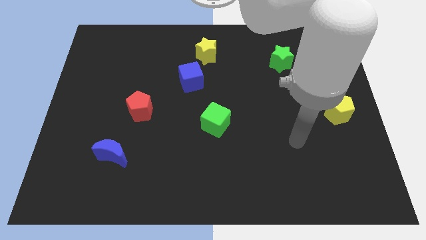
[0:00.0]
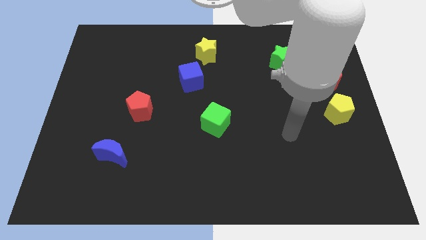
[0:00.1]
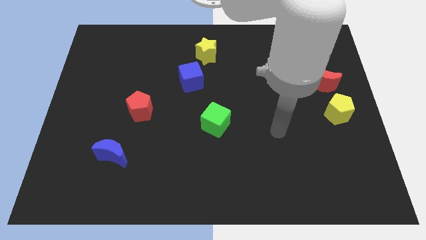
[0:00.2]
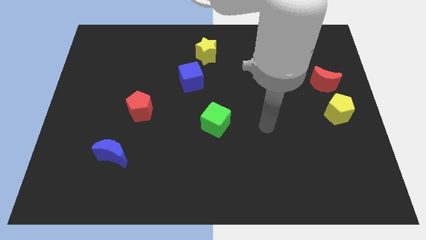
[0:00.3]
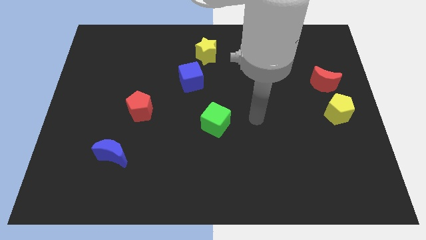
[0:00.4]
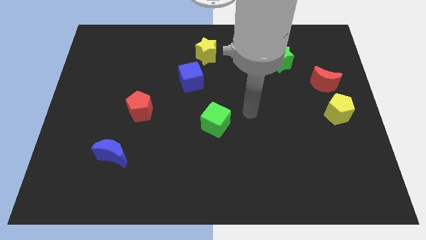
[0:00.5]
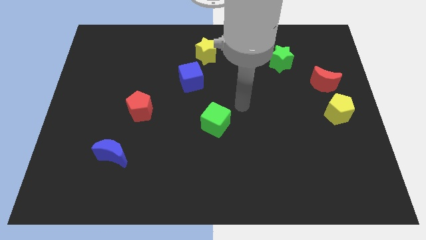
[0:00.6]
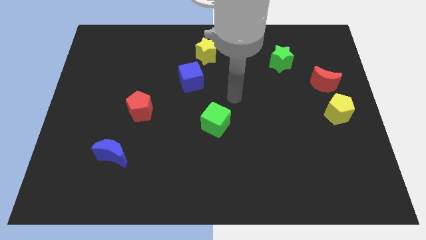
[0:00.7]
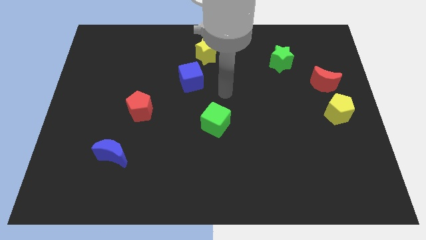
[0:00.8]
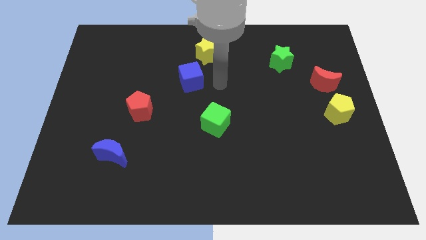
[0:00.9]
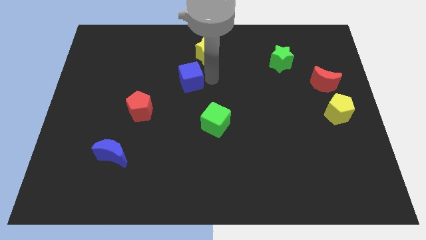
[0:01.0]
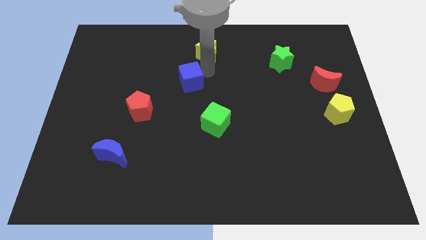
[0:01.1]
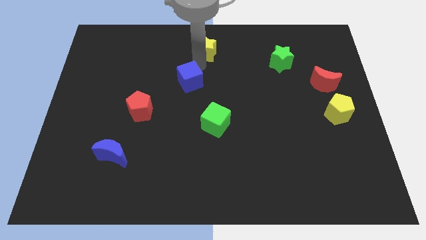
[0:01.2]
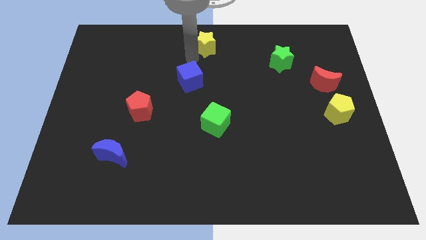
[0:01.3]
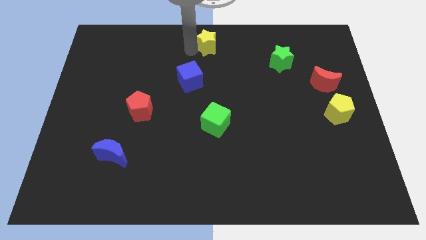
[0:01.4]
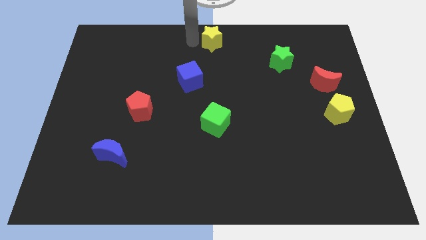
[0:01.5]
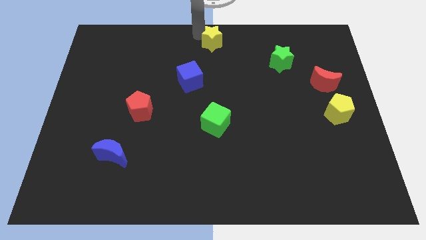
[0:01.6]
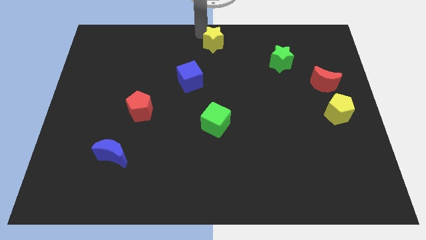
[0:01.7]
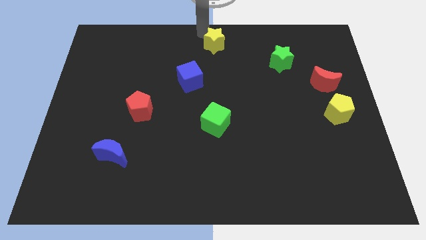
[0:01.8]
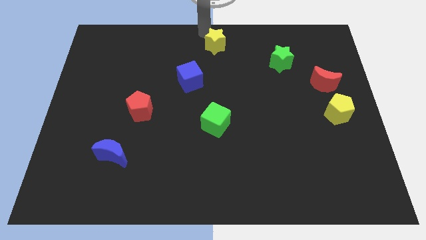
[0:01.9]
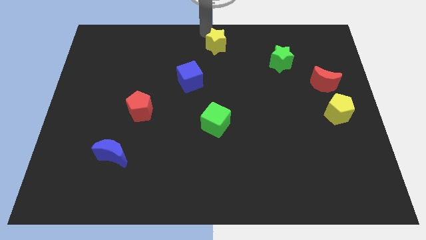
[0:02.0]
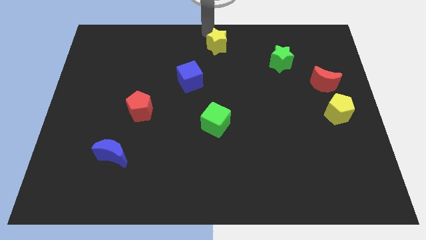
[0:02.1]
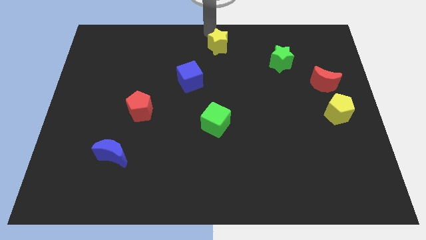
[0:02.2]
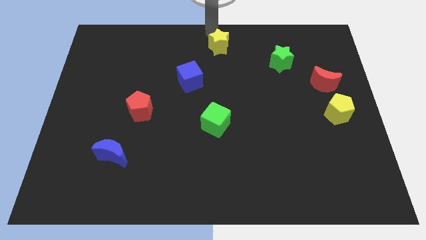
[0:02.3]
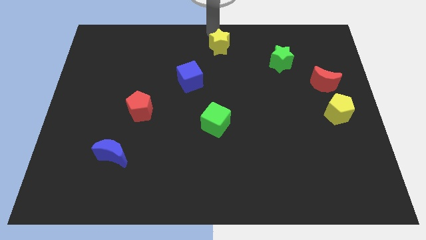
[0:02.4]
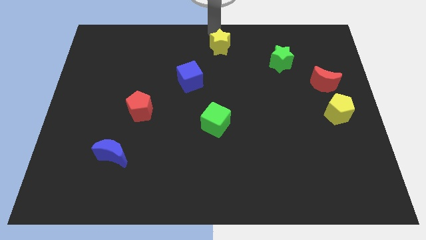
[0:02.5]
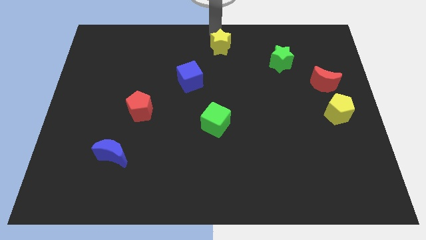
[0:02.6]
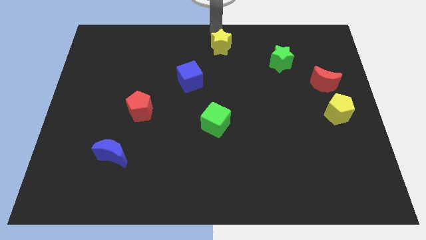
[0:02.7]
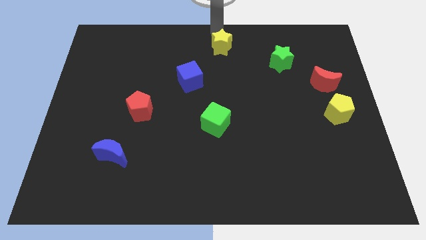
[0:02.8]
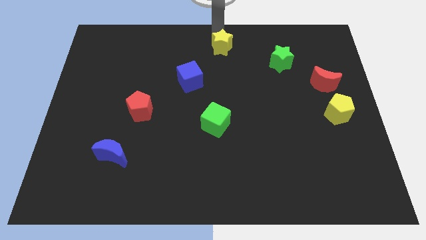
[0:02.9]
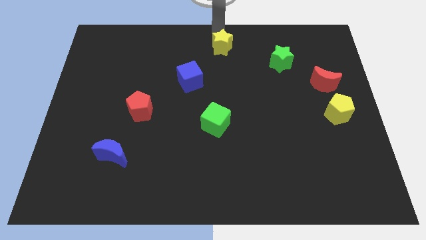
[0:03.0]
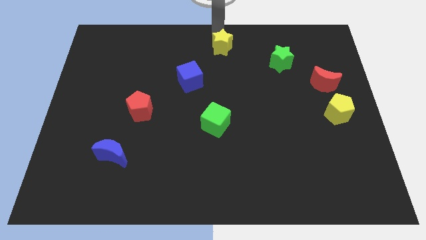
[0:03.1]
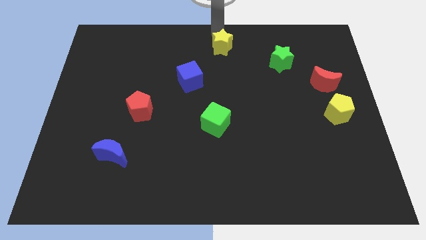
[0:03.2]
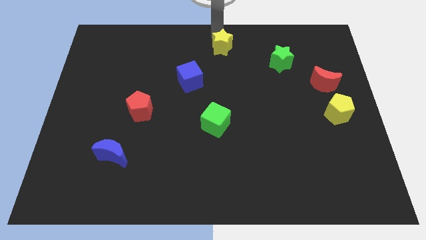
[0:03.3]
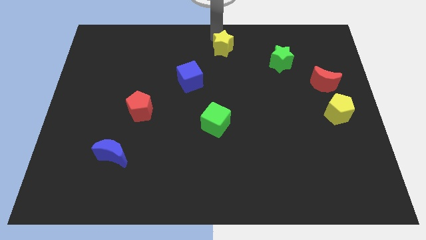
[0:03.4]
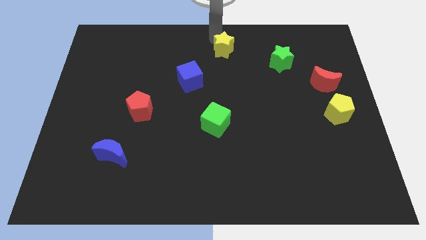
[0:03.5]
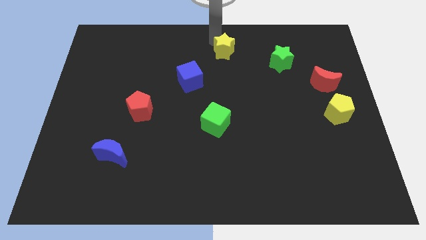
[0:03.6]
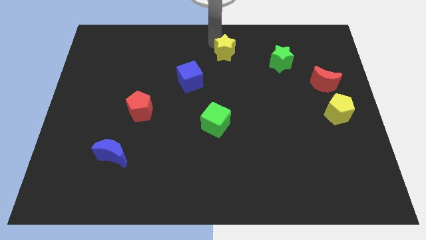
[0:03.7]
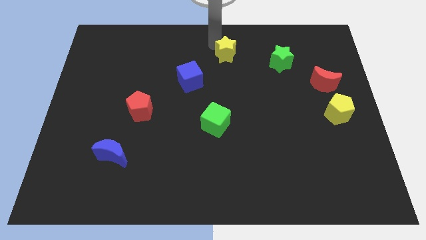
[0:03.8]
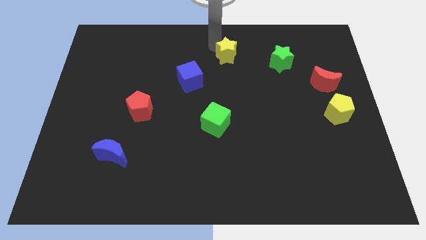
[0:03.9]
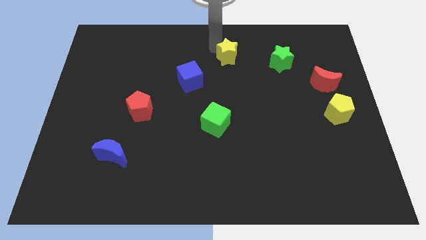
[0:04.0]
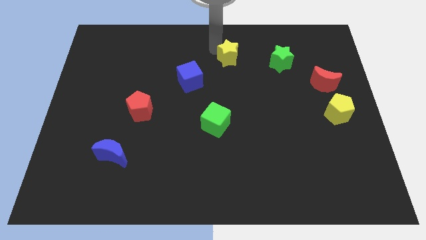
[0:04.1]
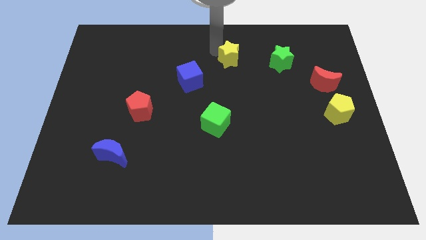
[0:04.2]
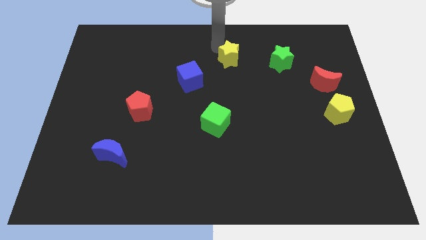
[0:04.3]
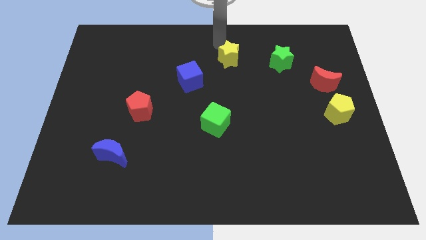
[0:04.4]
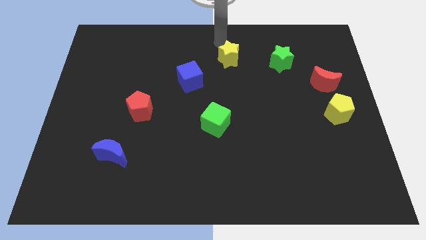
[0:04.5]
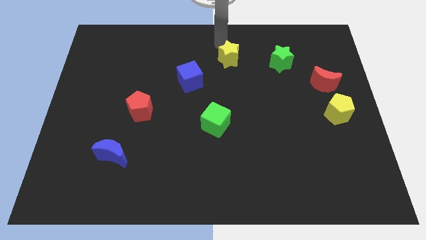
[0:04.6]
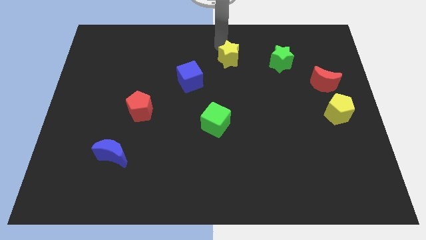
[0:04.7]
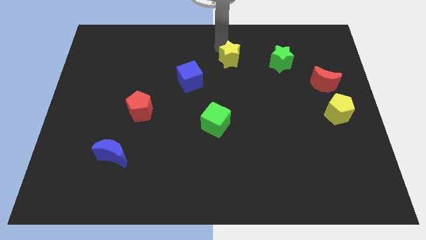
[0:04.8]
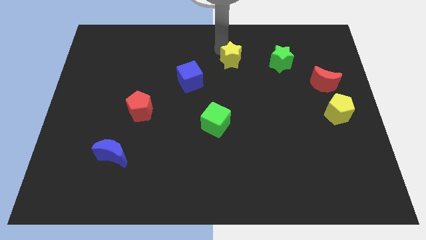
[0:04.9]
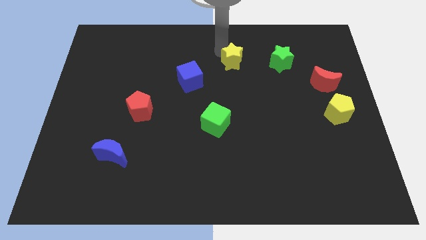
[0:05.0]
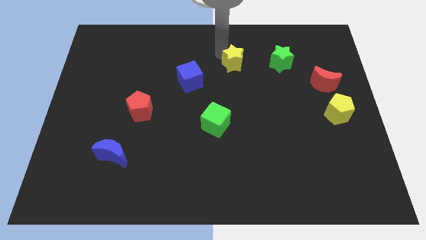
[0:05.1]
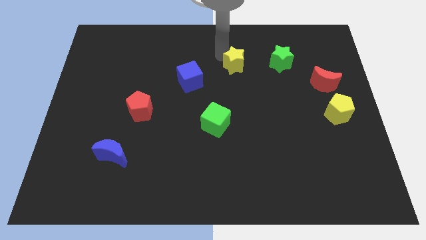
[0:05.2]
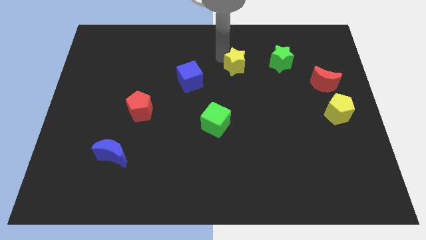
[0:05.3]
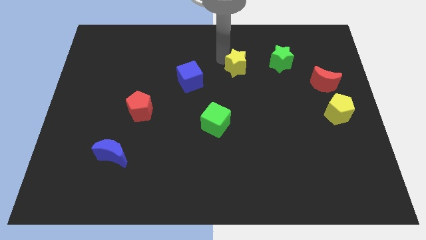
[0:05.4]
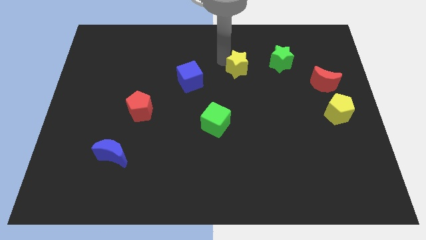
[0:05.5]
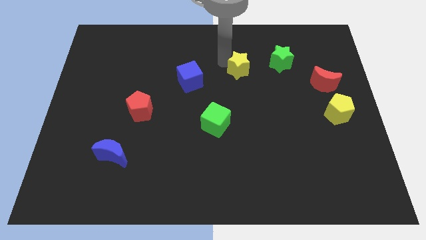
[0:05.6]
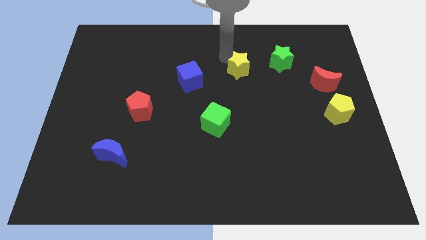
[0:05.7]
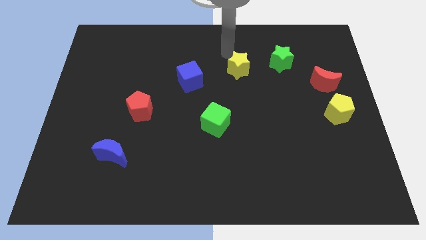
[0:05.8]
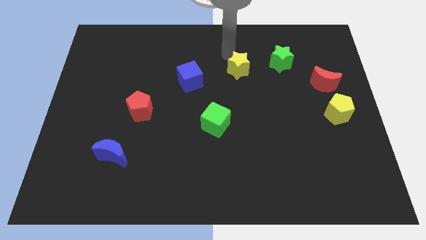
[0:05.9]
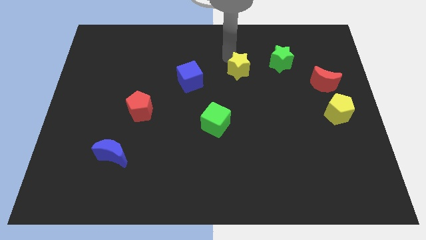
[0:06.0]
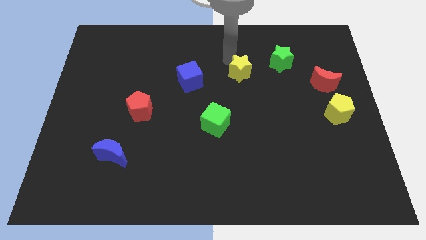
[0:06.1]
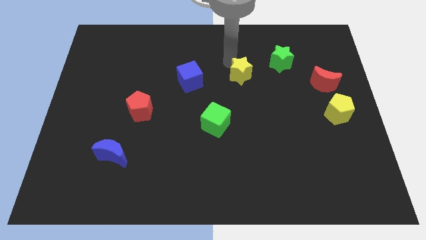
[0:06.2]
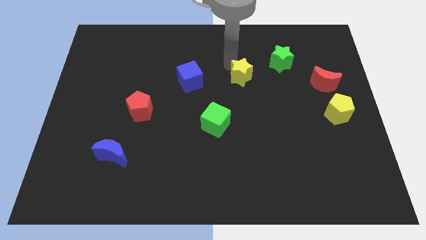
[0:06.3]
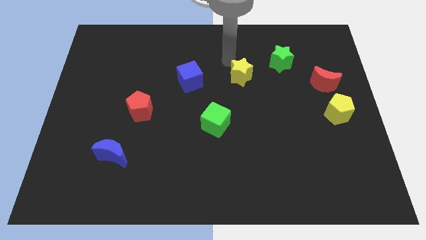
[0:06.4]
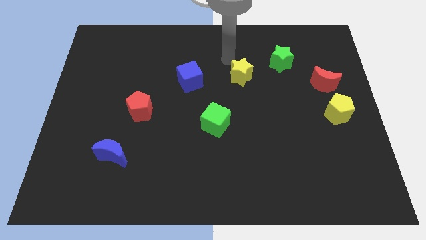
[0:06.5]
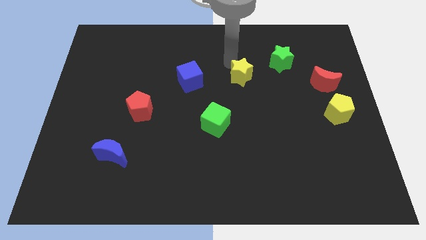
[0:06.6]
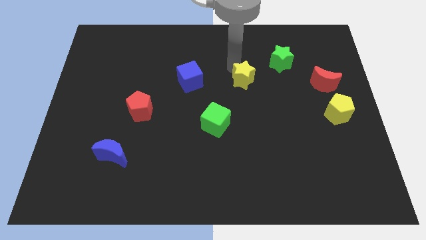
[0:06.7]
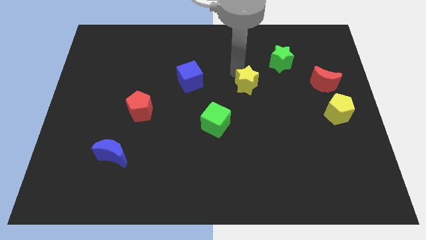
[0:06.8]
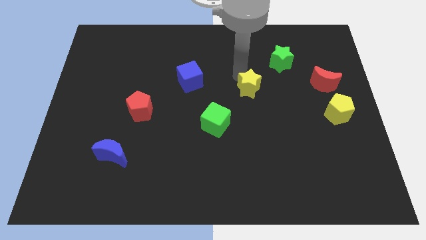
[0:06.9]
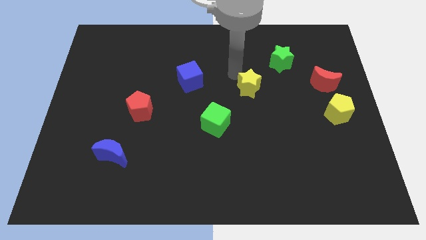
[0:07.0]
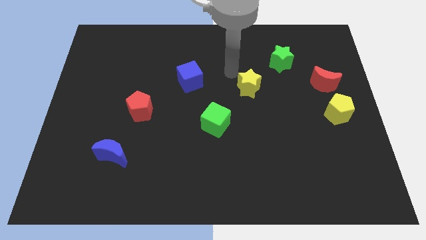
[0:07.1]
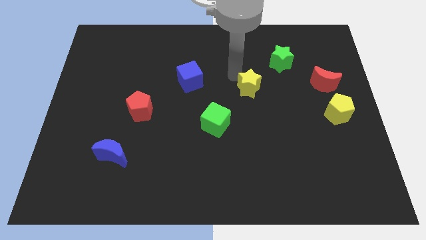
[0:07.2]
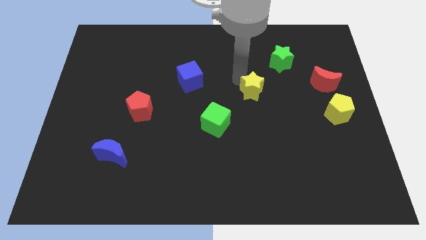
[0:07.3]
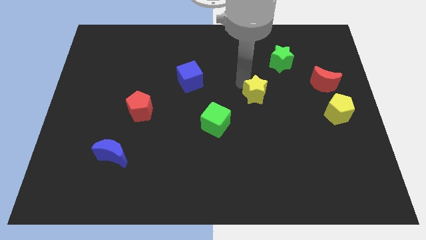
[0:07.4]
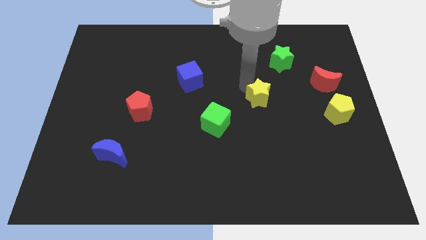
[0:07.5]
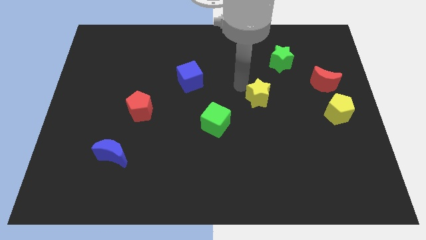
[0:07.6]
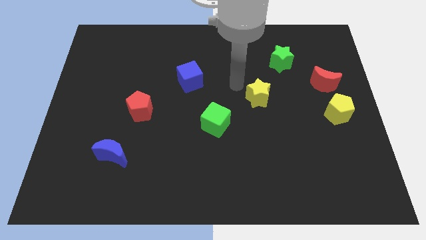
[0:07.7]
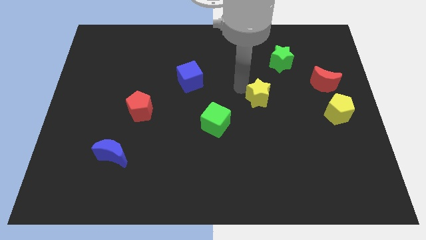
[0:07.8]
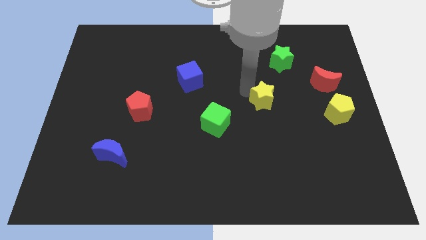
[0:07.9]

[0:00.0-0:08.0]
push the yellow star downwards and then to the right
